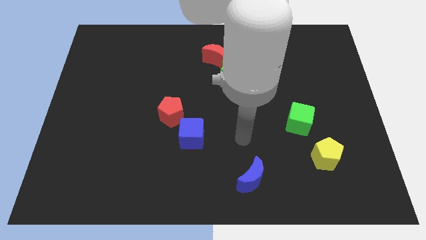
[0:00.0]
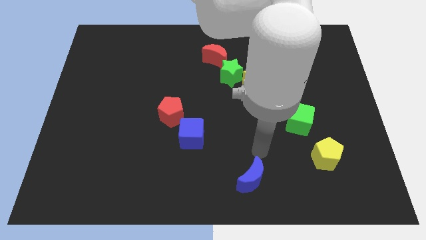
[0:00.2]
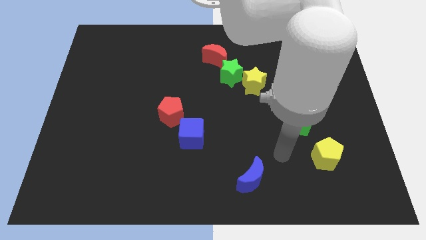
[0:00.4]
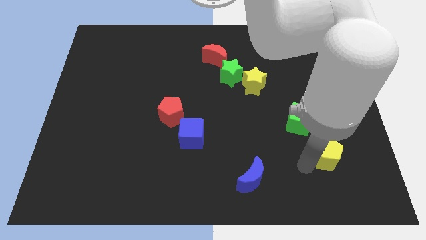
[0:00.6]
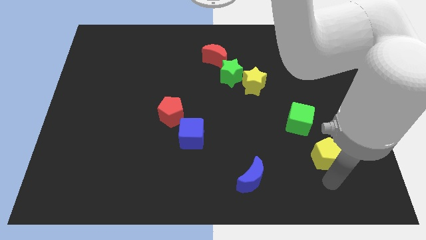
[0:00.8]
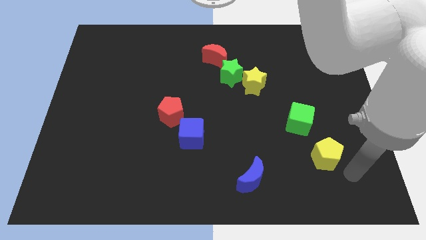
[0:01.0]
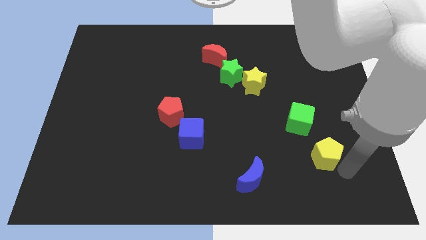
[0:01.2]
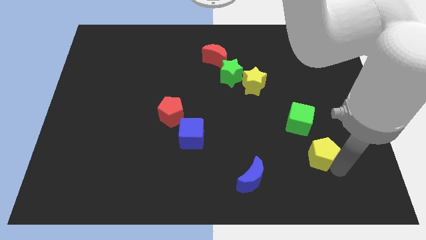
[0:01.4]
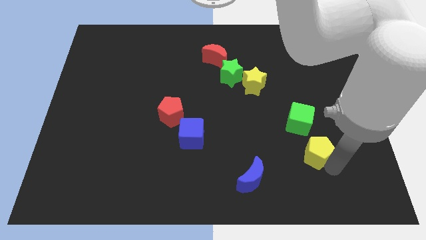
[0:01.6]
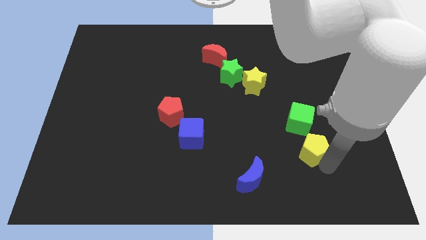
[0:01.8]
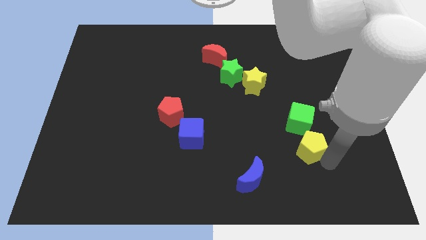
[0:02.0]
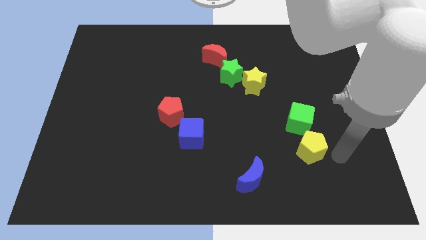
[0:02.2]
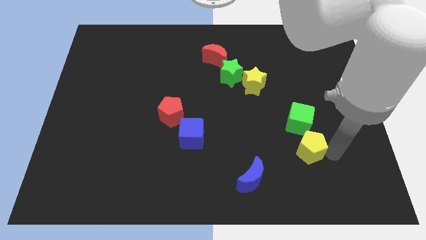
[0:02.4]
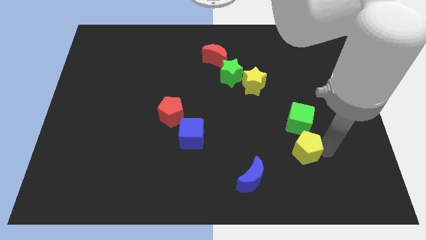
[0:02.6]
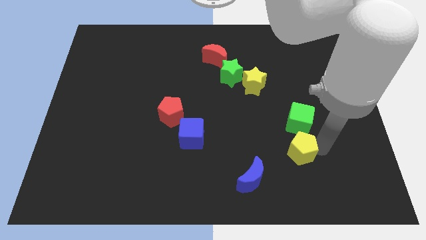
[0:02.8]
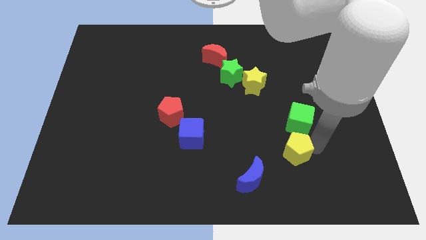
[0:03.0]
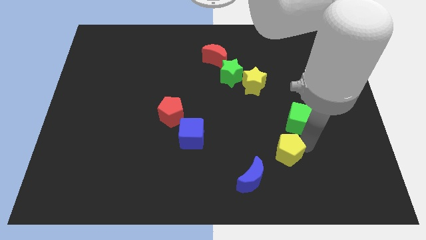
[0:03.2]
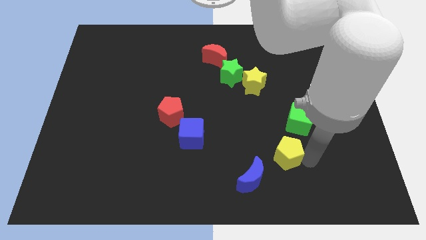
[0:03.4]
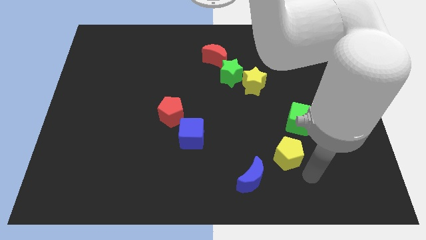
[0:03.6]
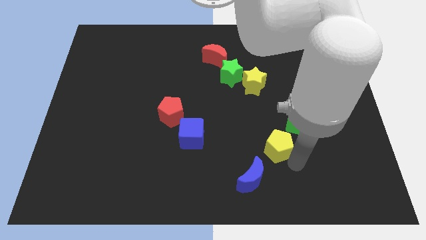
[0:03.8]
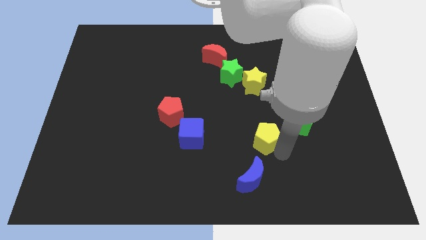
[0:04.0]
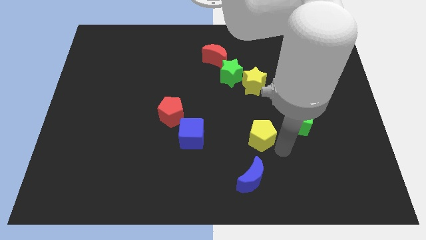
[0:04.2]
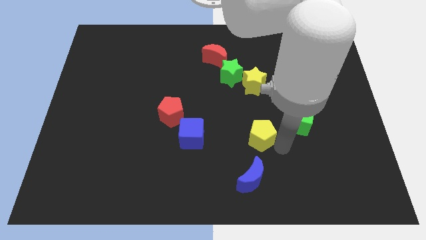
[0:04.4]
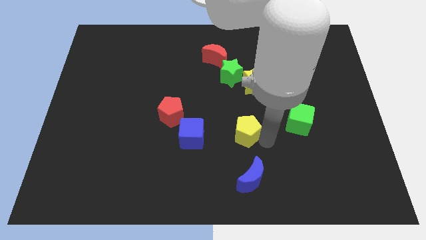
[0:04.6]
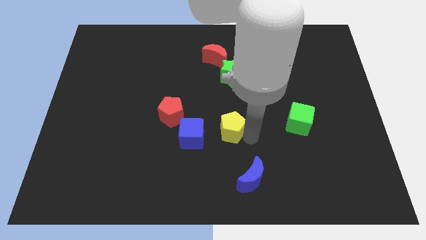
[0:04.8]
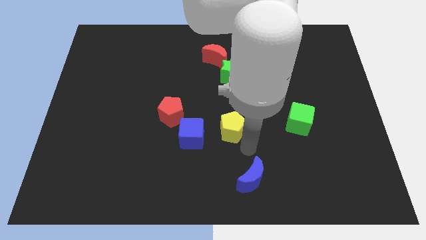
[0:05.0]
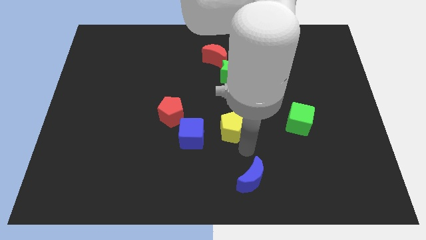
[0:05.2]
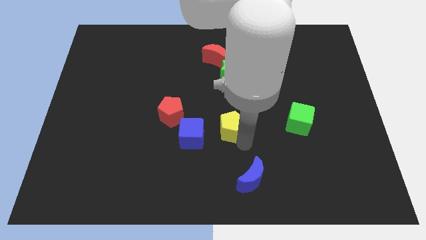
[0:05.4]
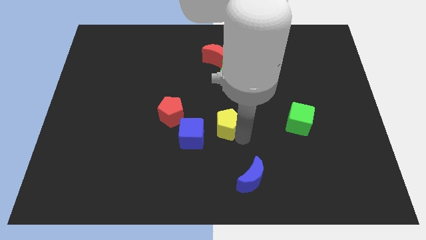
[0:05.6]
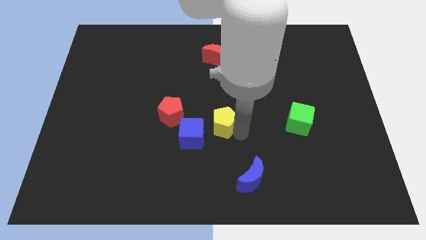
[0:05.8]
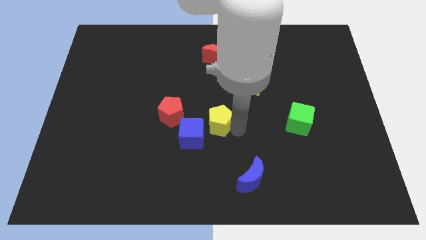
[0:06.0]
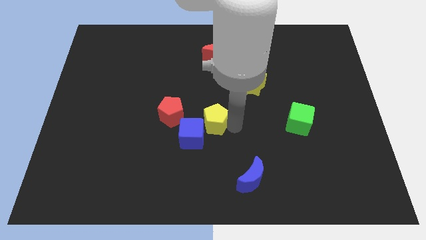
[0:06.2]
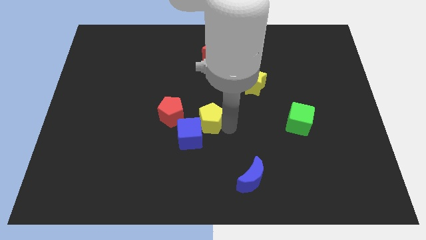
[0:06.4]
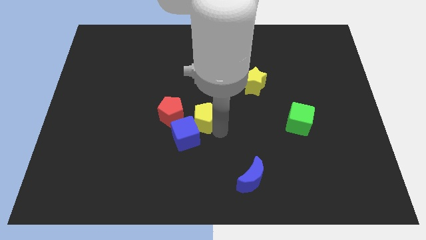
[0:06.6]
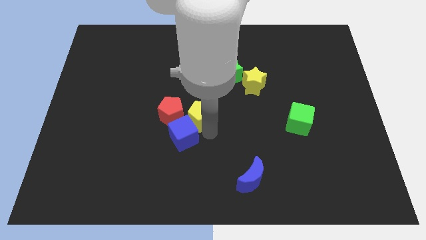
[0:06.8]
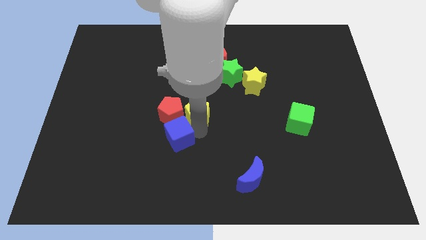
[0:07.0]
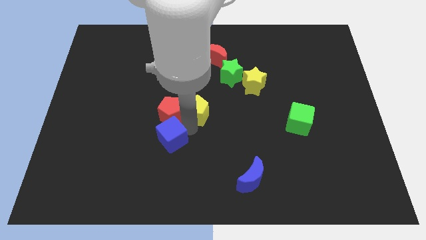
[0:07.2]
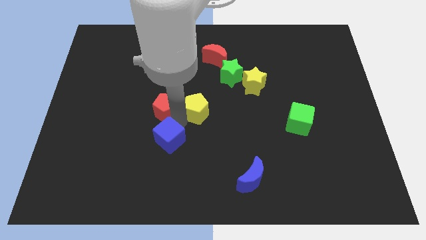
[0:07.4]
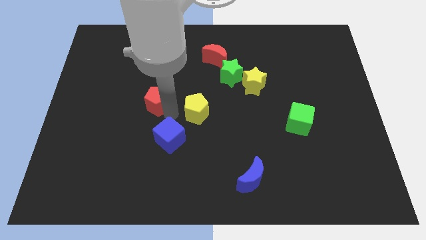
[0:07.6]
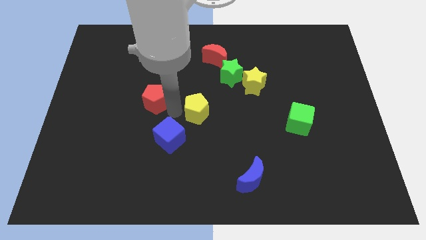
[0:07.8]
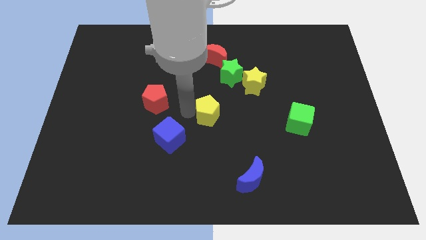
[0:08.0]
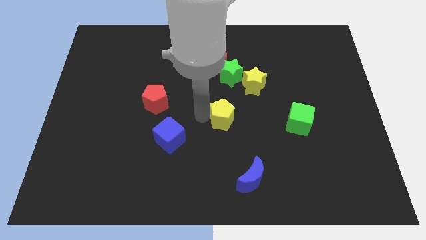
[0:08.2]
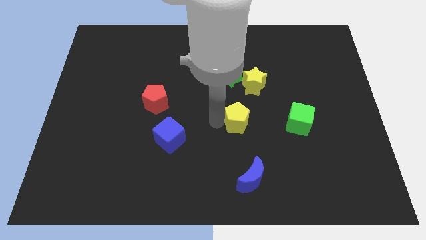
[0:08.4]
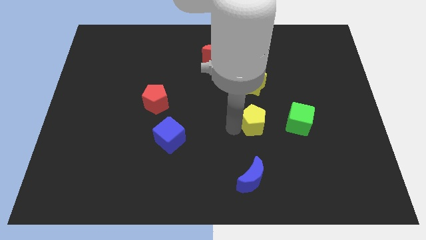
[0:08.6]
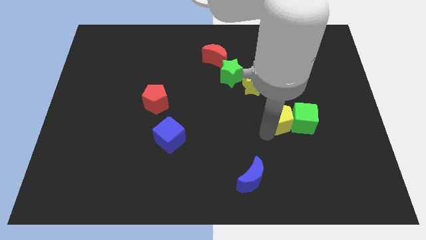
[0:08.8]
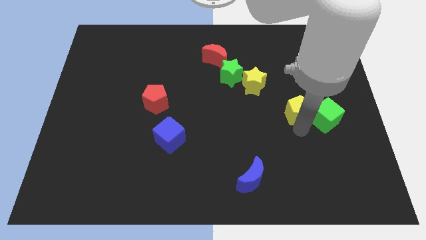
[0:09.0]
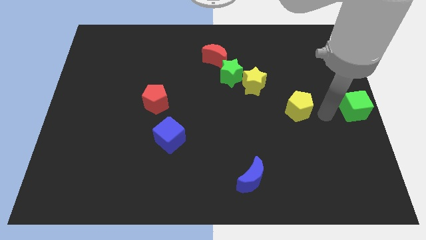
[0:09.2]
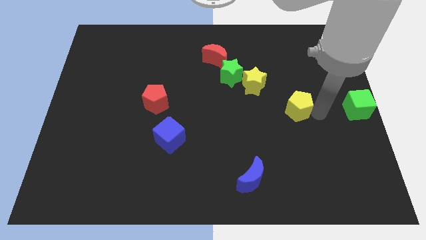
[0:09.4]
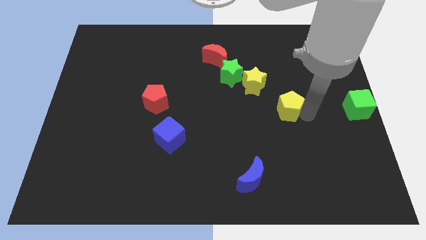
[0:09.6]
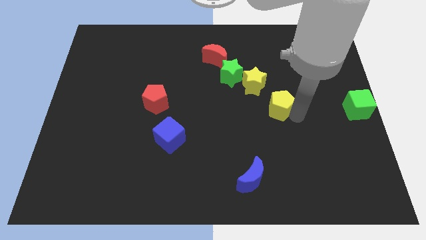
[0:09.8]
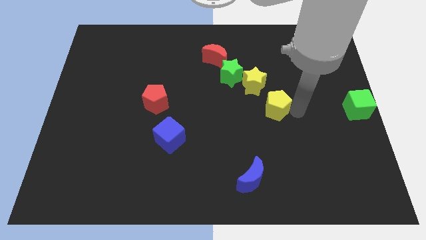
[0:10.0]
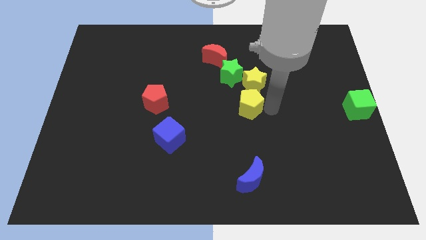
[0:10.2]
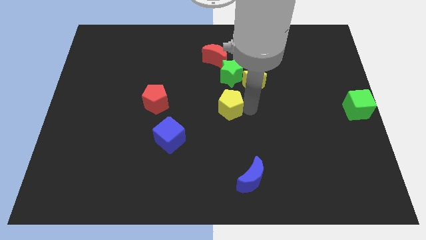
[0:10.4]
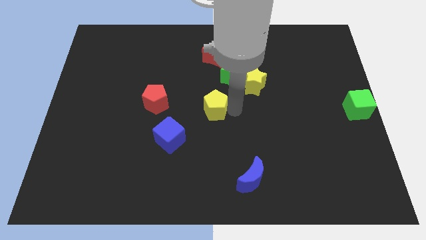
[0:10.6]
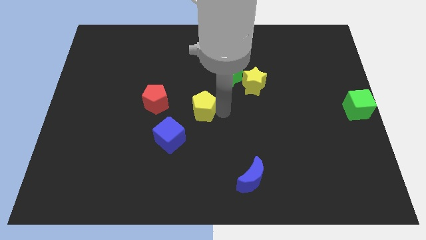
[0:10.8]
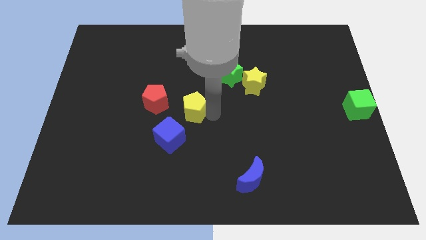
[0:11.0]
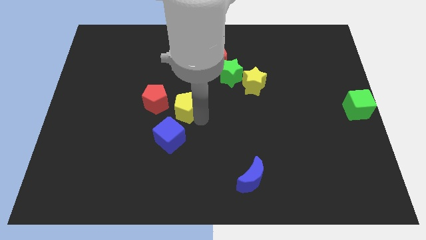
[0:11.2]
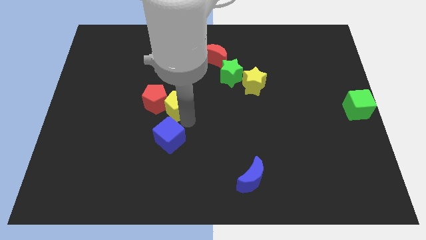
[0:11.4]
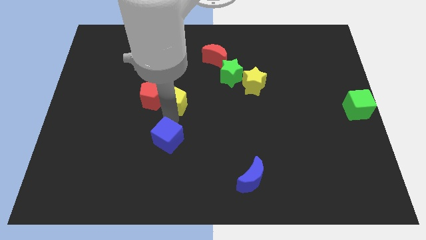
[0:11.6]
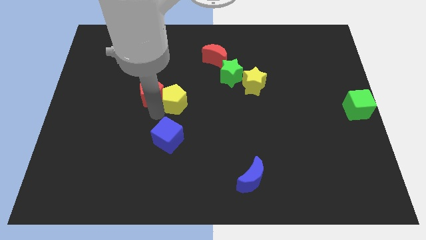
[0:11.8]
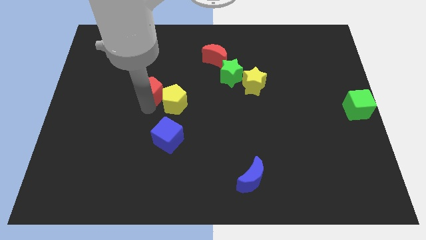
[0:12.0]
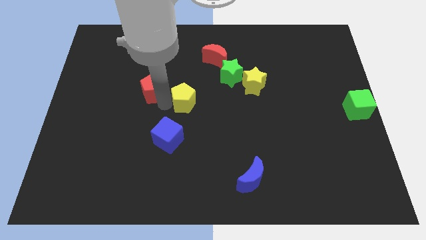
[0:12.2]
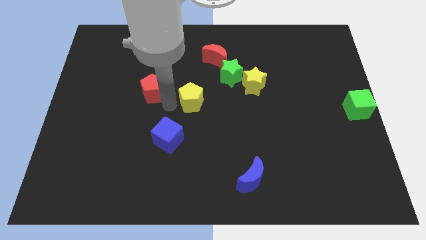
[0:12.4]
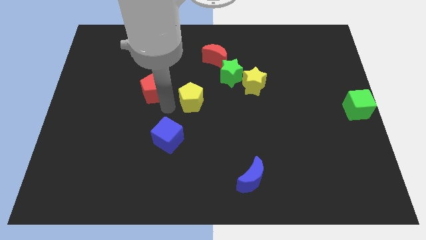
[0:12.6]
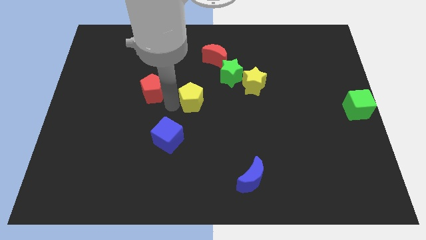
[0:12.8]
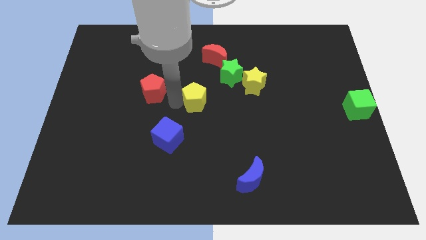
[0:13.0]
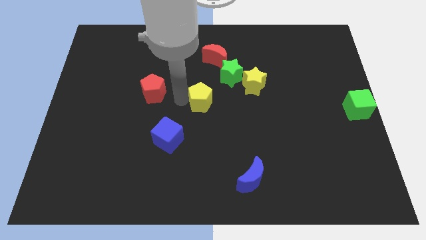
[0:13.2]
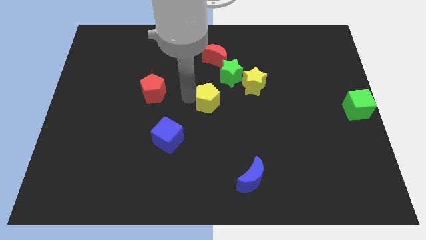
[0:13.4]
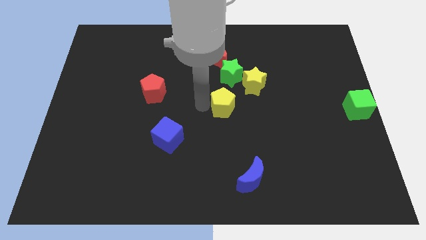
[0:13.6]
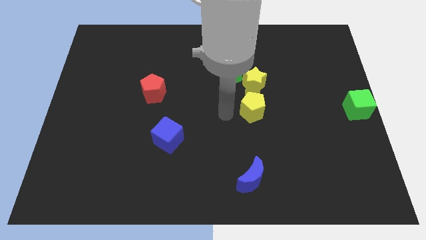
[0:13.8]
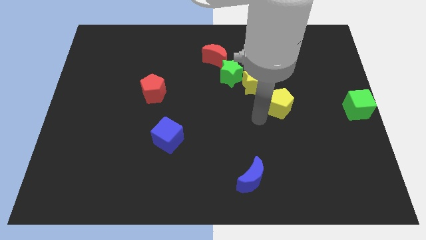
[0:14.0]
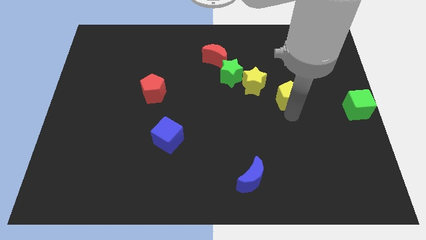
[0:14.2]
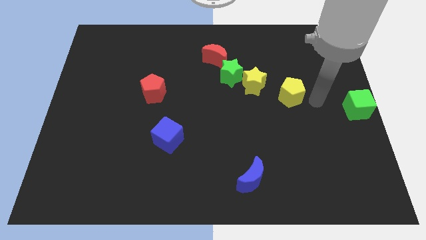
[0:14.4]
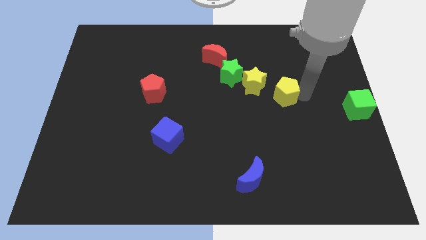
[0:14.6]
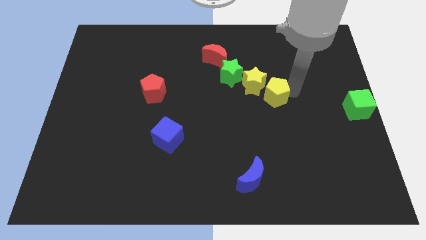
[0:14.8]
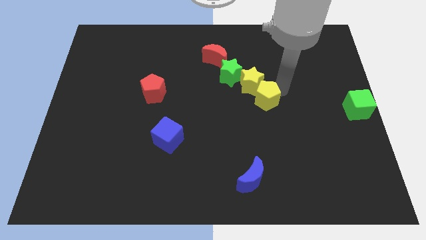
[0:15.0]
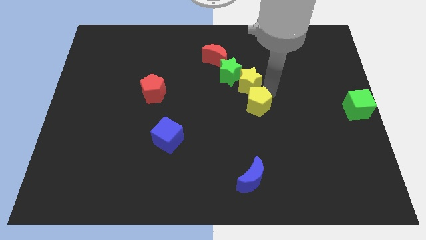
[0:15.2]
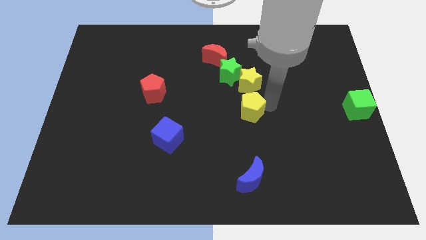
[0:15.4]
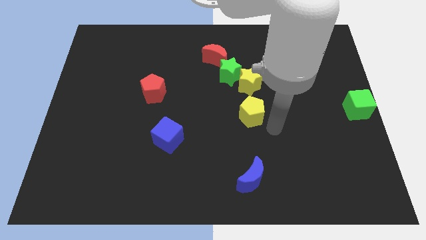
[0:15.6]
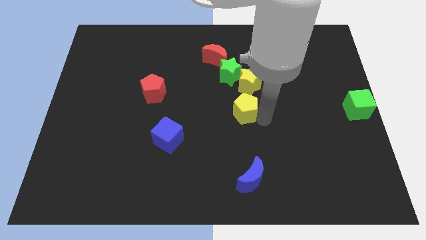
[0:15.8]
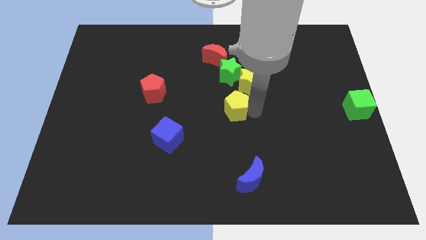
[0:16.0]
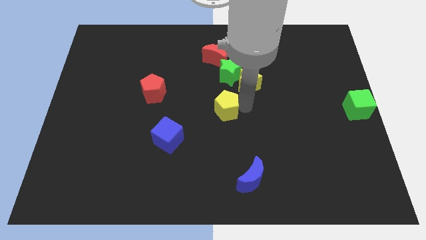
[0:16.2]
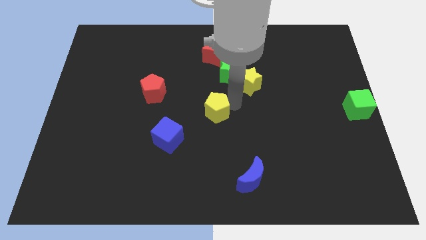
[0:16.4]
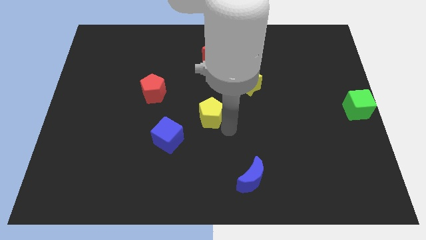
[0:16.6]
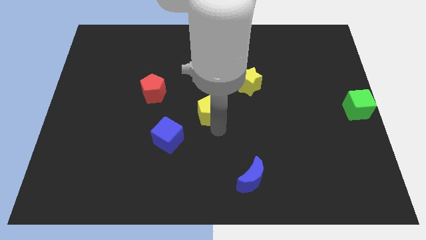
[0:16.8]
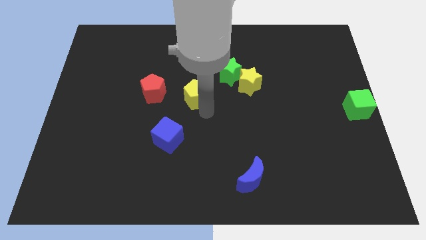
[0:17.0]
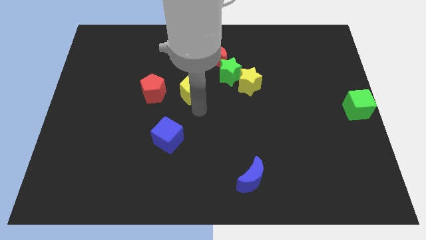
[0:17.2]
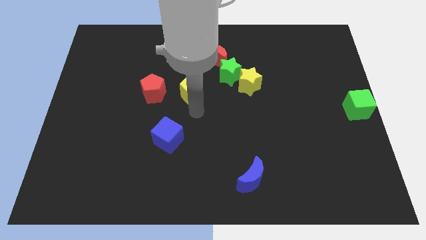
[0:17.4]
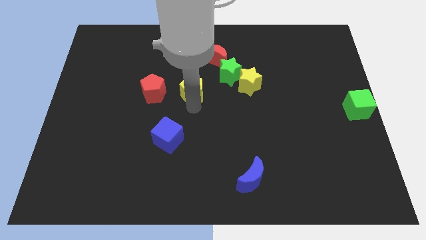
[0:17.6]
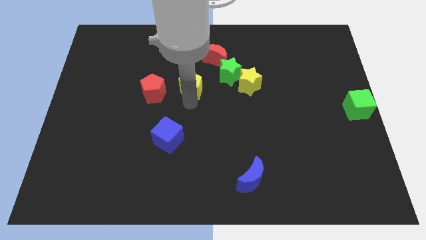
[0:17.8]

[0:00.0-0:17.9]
put the yellow pentagon left of the green star
